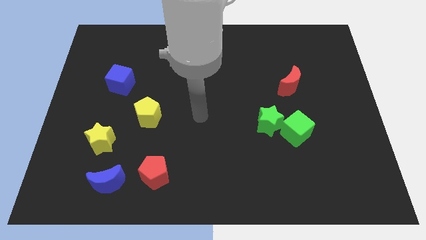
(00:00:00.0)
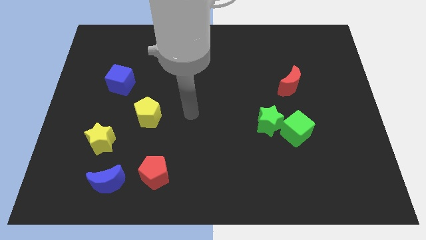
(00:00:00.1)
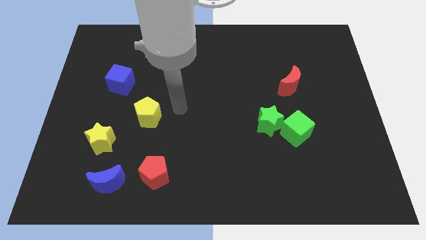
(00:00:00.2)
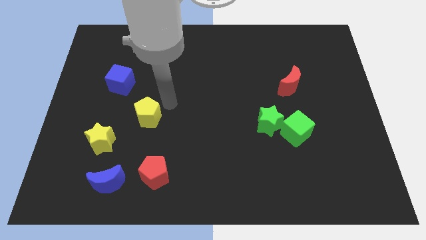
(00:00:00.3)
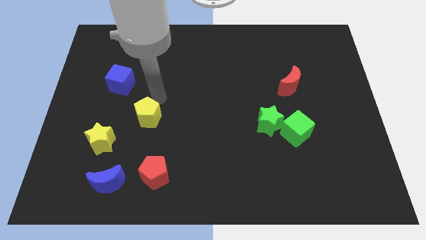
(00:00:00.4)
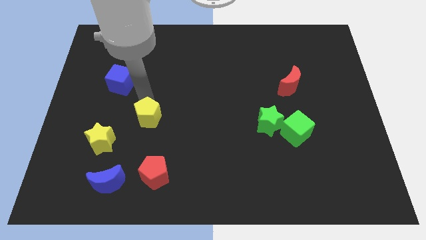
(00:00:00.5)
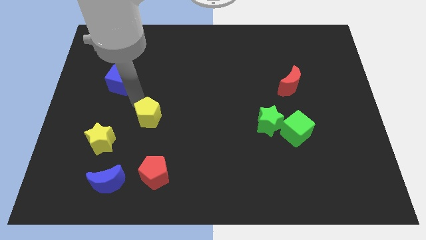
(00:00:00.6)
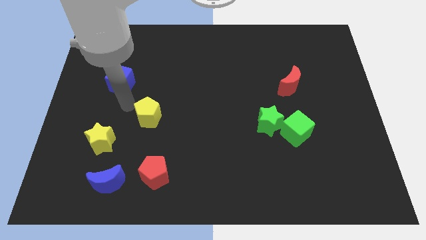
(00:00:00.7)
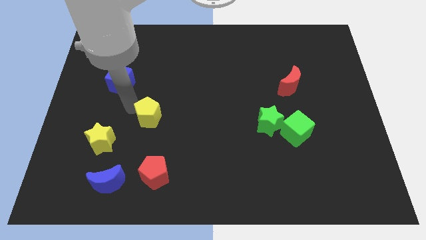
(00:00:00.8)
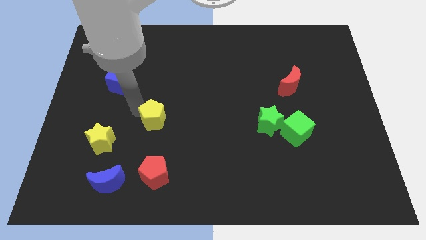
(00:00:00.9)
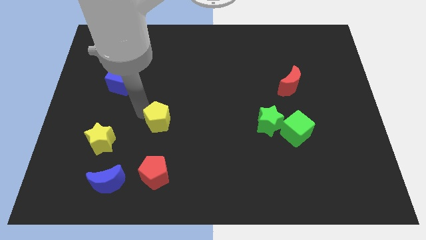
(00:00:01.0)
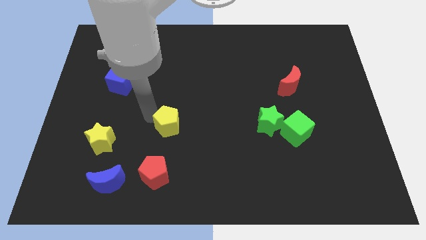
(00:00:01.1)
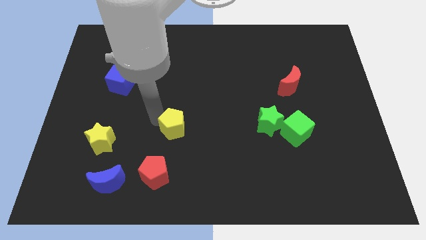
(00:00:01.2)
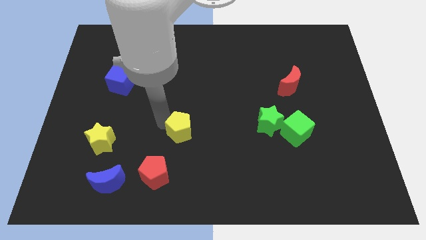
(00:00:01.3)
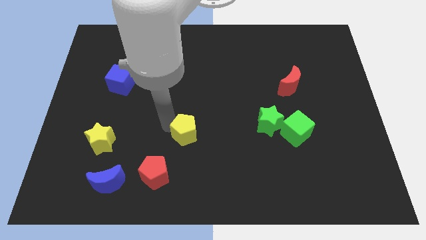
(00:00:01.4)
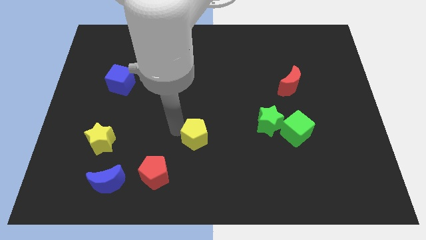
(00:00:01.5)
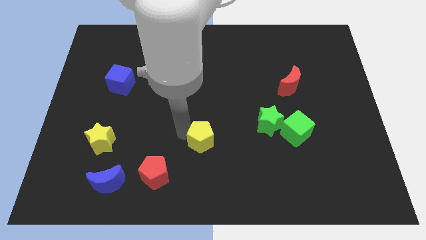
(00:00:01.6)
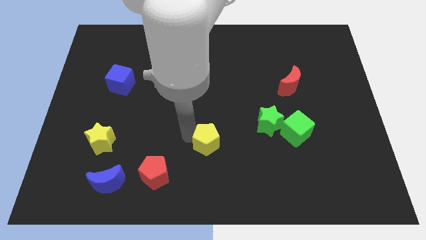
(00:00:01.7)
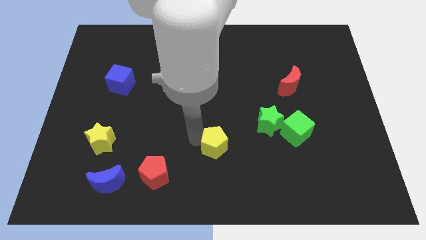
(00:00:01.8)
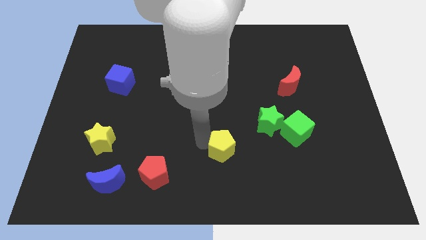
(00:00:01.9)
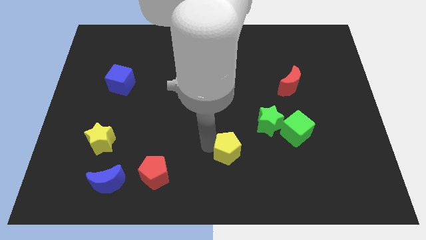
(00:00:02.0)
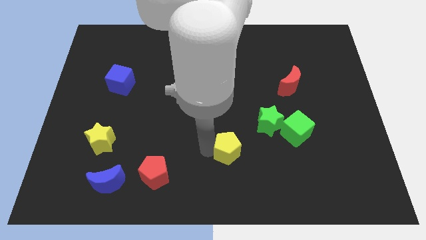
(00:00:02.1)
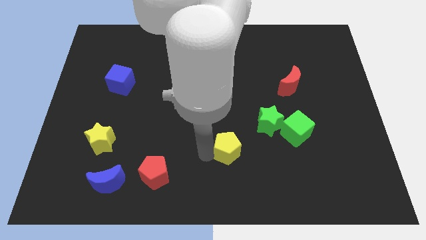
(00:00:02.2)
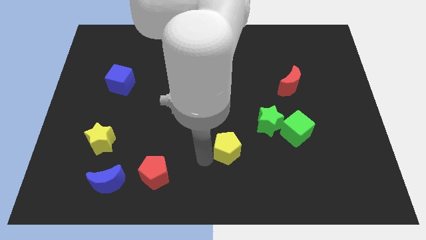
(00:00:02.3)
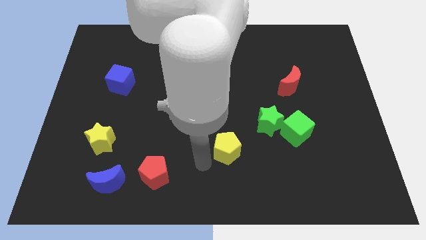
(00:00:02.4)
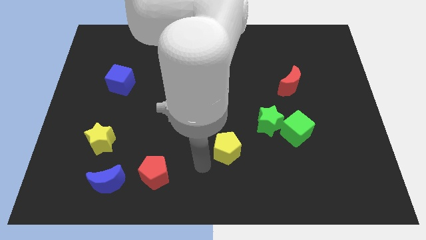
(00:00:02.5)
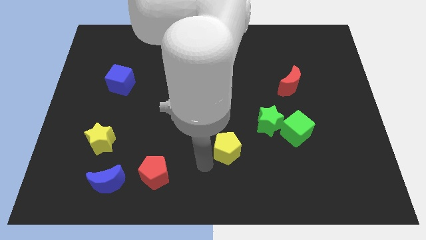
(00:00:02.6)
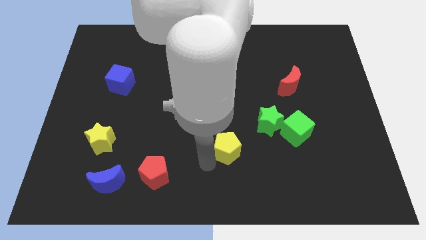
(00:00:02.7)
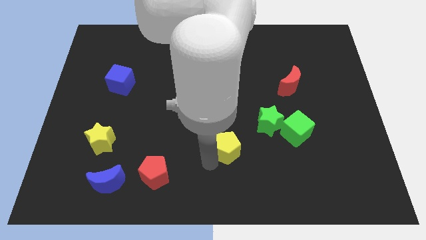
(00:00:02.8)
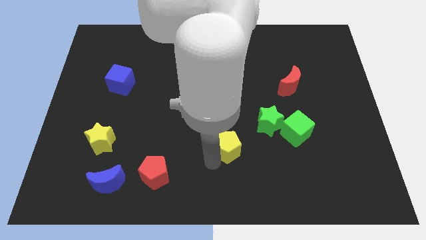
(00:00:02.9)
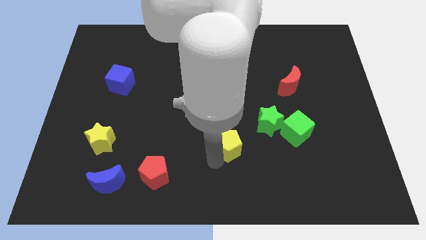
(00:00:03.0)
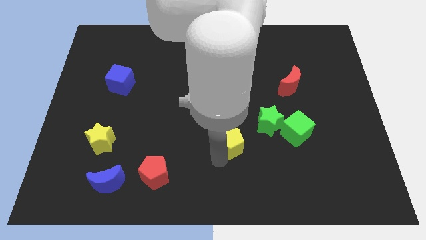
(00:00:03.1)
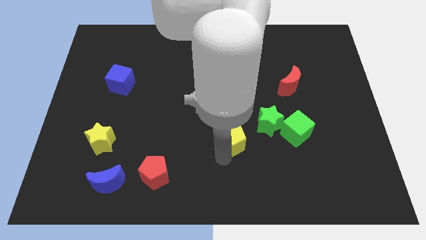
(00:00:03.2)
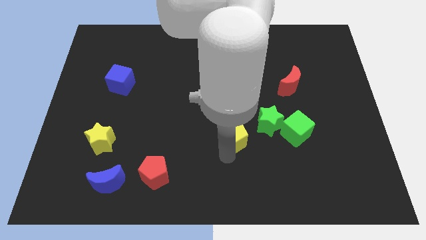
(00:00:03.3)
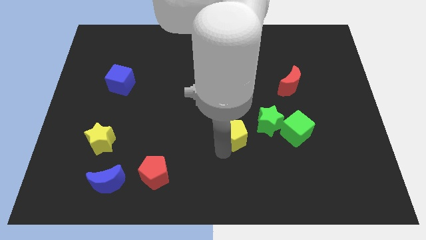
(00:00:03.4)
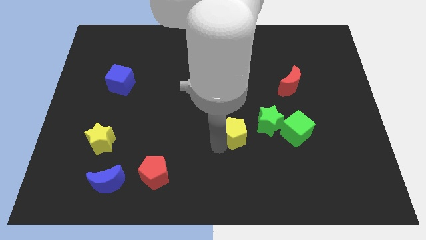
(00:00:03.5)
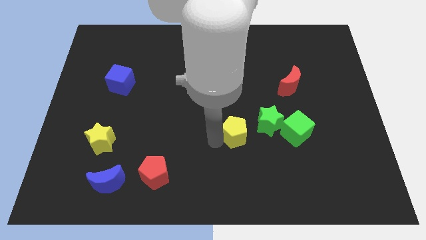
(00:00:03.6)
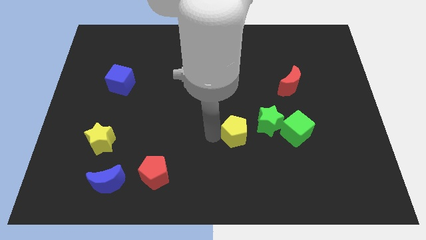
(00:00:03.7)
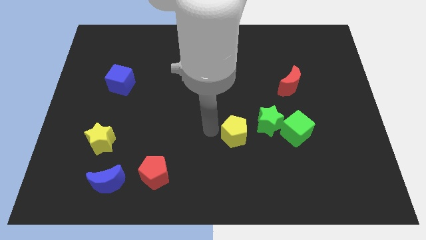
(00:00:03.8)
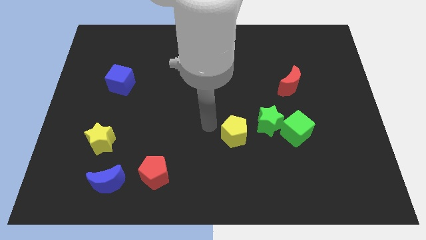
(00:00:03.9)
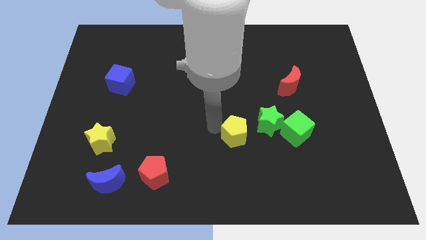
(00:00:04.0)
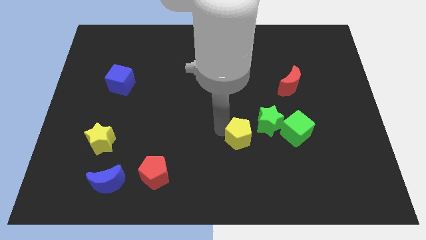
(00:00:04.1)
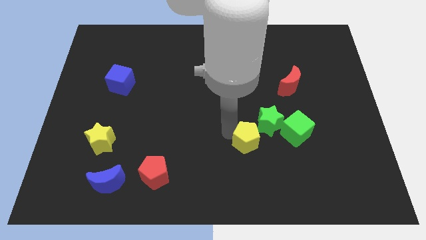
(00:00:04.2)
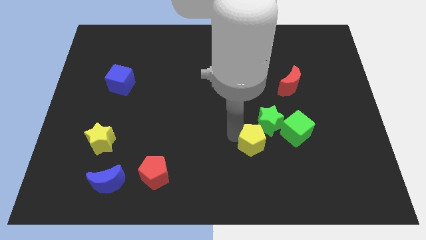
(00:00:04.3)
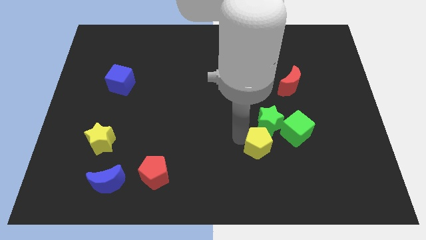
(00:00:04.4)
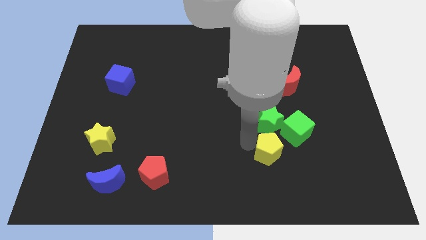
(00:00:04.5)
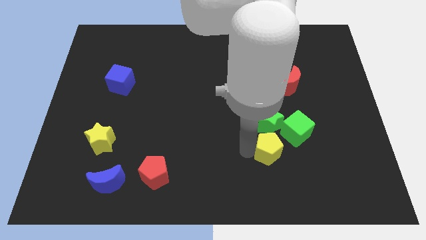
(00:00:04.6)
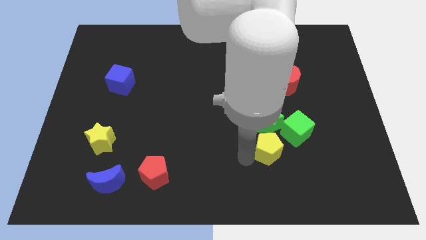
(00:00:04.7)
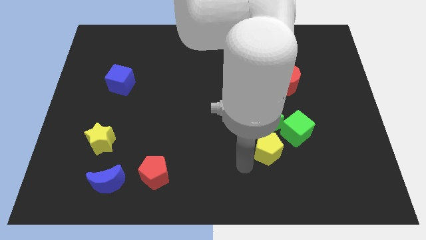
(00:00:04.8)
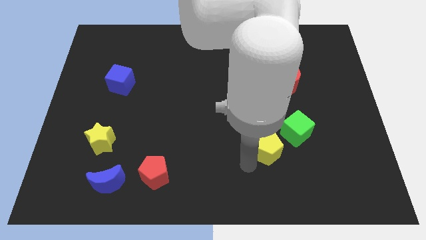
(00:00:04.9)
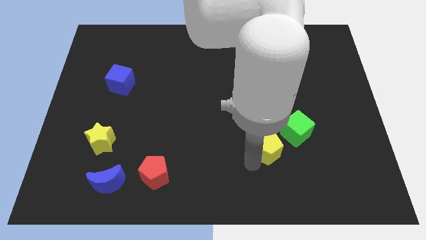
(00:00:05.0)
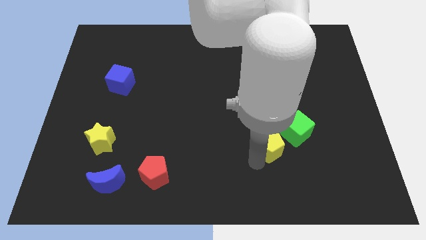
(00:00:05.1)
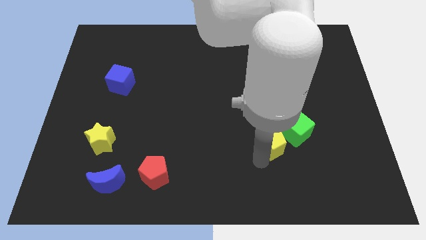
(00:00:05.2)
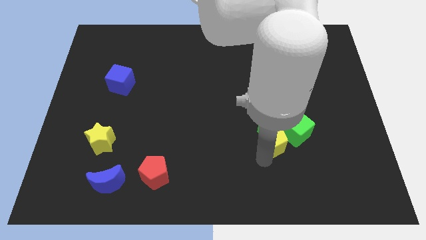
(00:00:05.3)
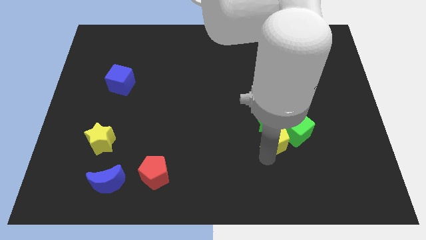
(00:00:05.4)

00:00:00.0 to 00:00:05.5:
slide the yellow pentagon next to the green cube

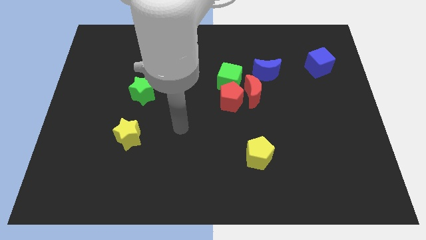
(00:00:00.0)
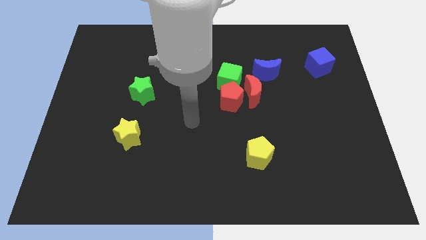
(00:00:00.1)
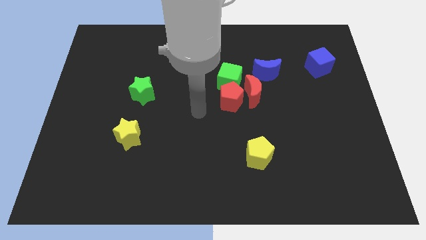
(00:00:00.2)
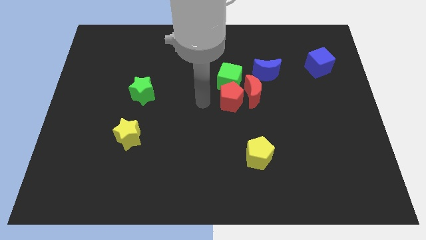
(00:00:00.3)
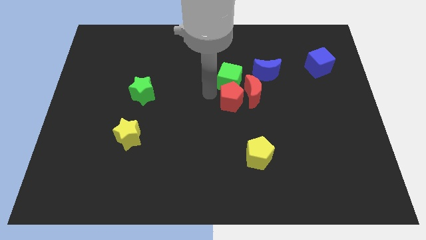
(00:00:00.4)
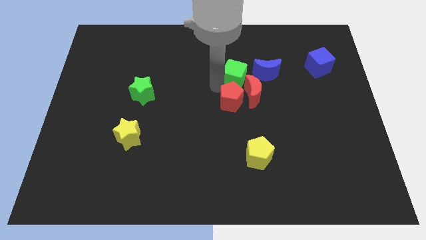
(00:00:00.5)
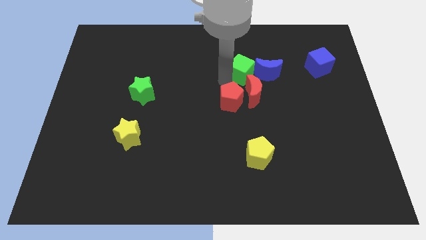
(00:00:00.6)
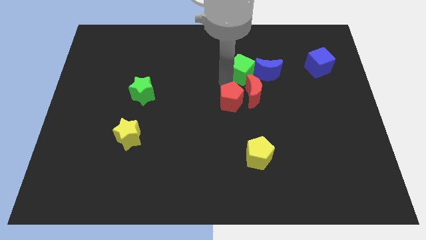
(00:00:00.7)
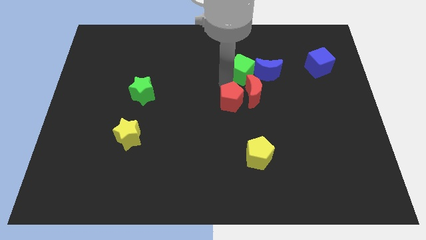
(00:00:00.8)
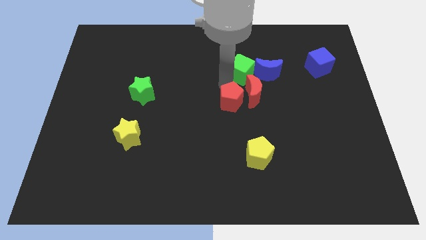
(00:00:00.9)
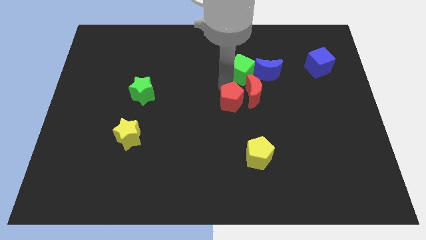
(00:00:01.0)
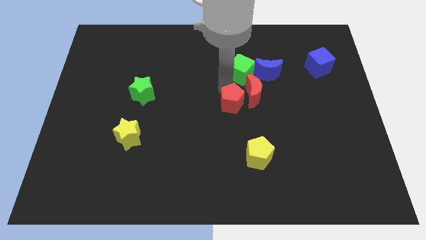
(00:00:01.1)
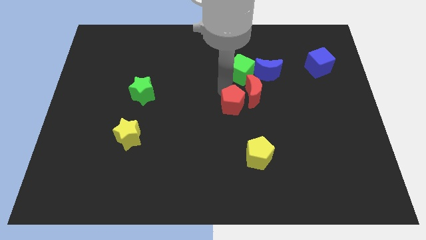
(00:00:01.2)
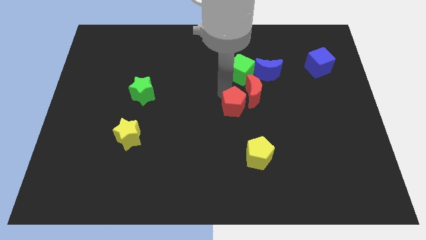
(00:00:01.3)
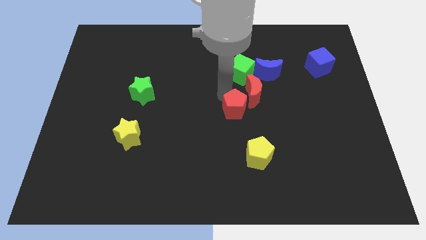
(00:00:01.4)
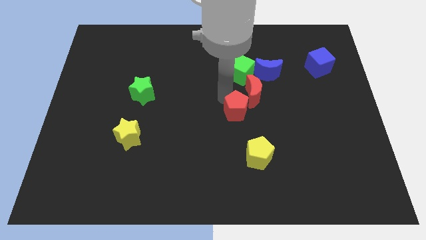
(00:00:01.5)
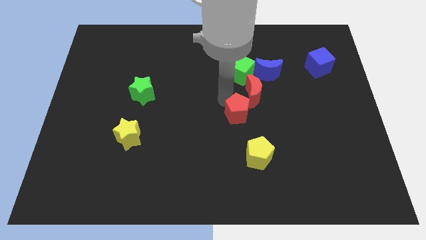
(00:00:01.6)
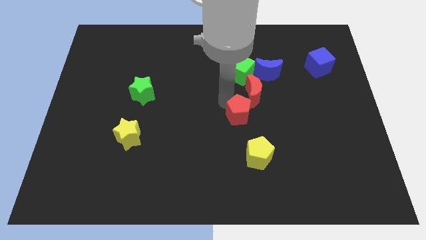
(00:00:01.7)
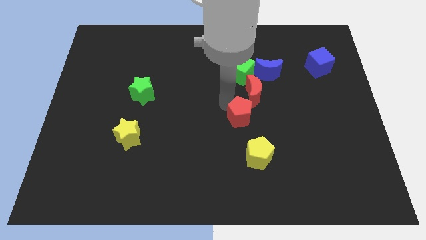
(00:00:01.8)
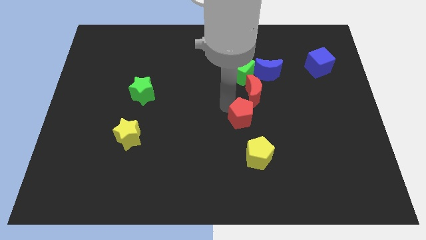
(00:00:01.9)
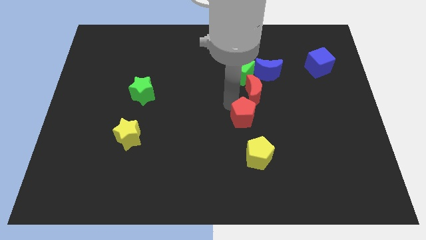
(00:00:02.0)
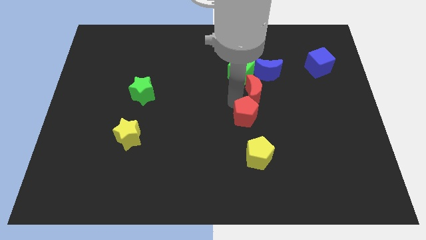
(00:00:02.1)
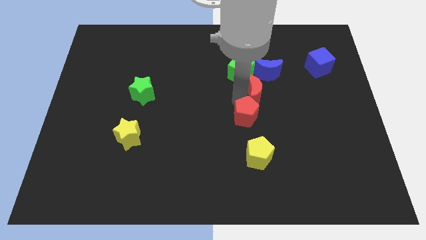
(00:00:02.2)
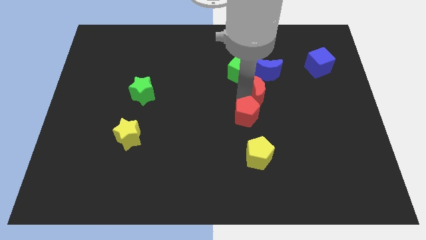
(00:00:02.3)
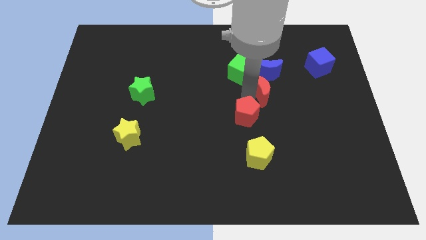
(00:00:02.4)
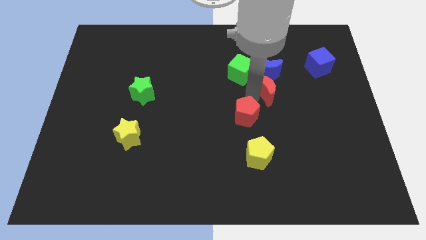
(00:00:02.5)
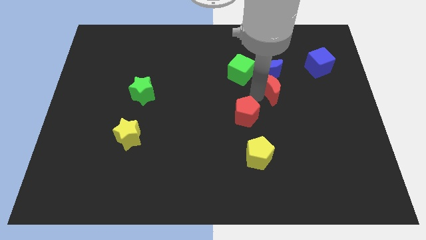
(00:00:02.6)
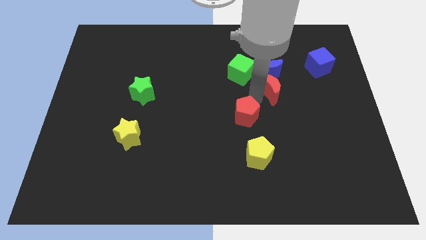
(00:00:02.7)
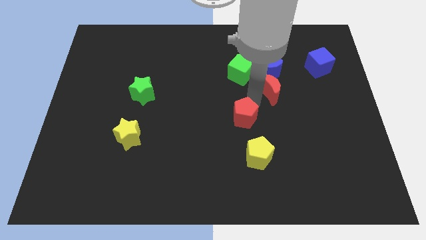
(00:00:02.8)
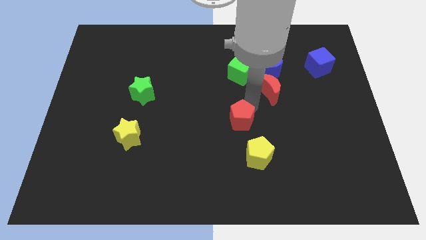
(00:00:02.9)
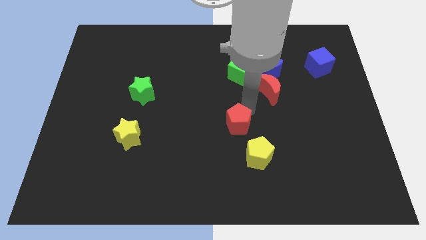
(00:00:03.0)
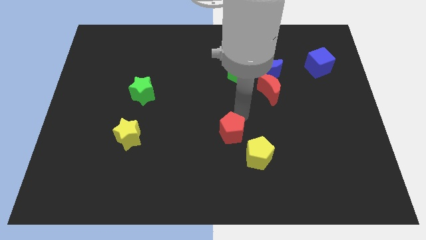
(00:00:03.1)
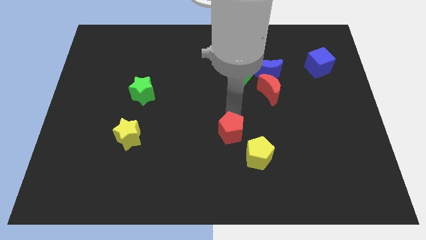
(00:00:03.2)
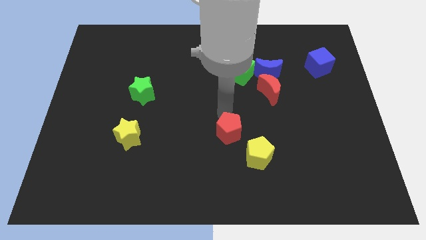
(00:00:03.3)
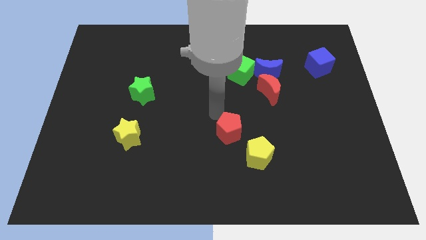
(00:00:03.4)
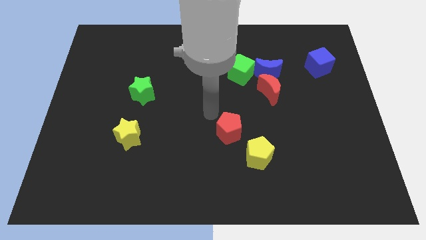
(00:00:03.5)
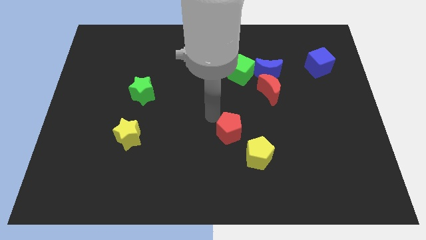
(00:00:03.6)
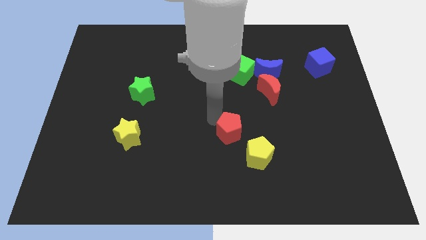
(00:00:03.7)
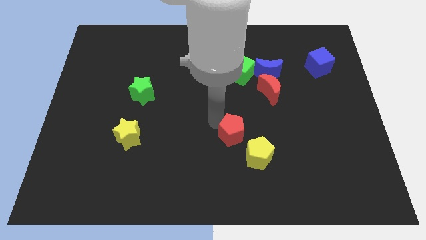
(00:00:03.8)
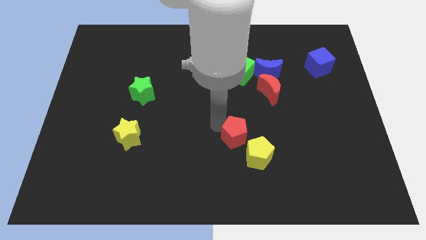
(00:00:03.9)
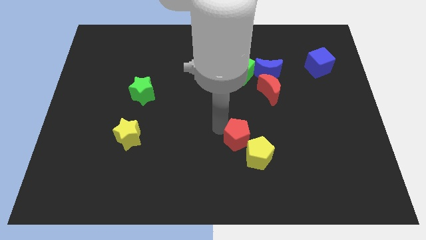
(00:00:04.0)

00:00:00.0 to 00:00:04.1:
put the red pentagon to the yellow pentagon
